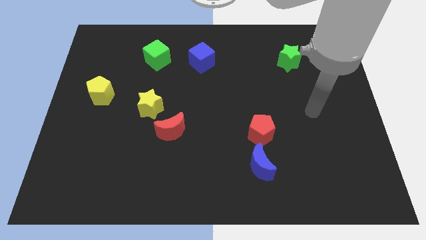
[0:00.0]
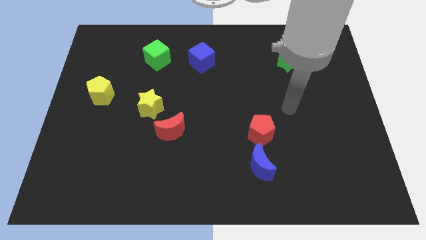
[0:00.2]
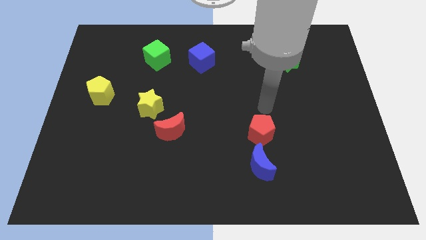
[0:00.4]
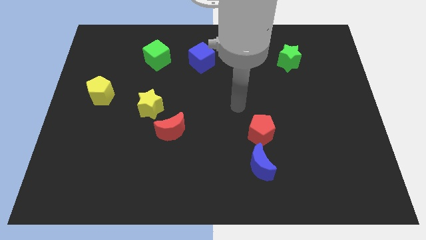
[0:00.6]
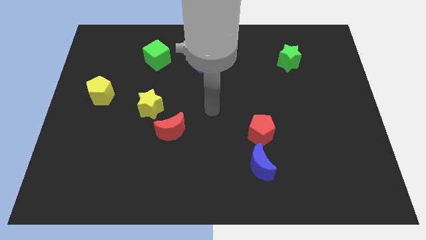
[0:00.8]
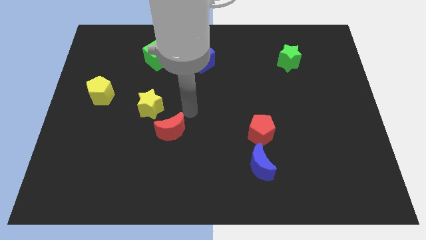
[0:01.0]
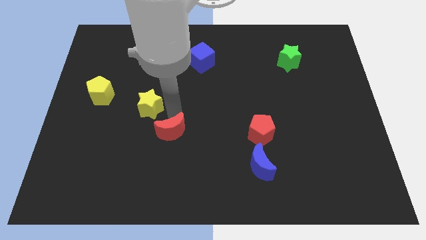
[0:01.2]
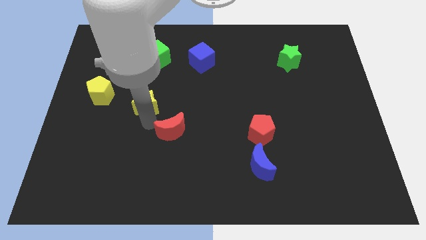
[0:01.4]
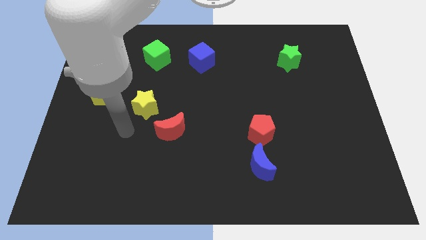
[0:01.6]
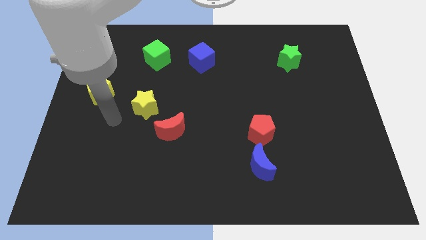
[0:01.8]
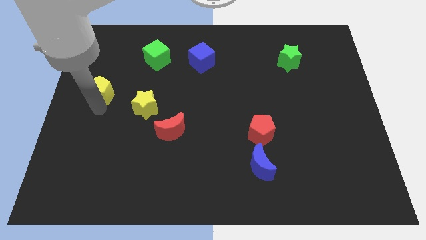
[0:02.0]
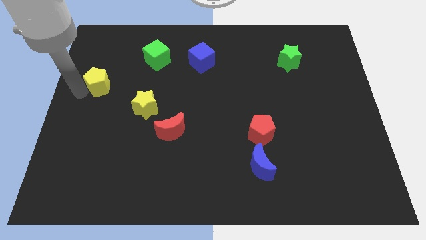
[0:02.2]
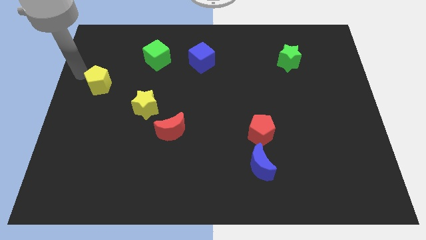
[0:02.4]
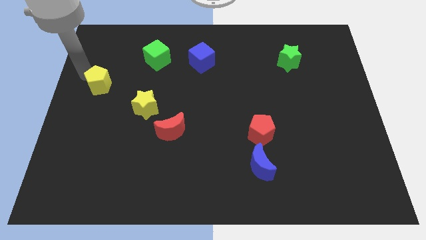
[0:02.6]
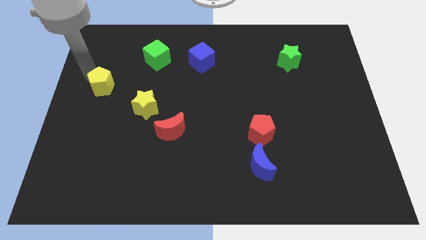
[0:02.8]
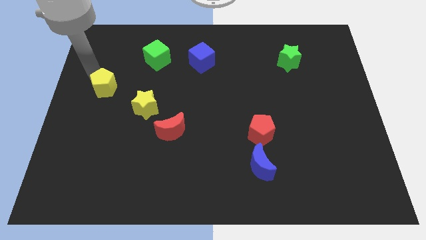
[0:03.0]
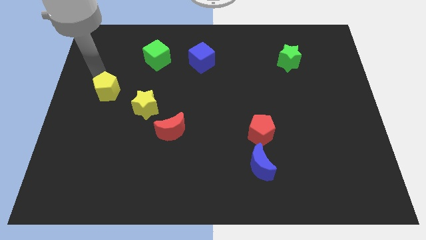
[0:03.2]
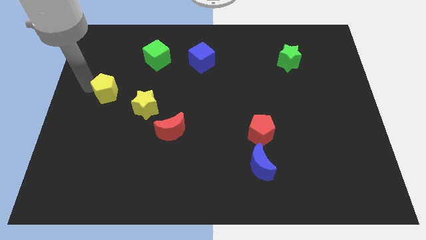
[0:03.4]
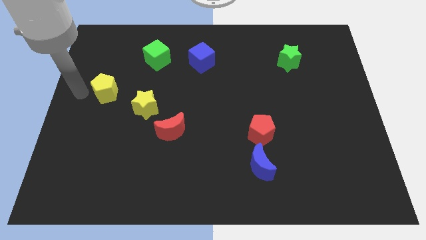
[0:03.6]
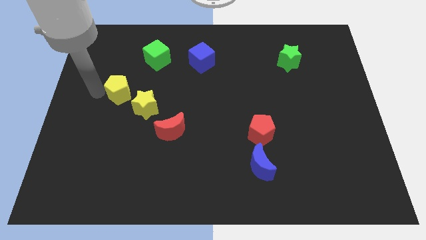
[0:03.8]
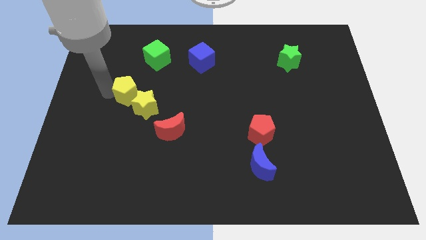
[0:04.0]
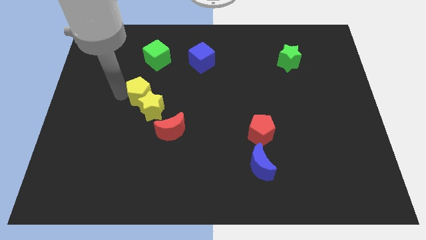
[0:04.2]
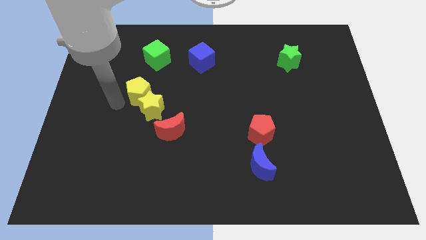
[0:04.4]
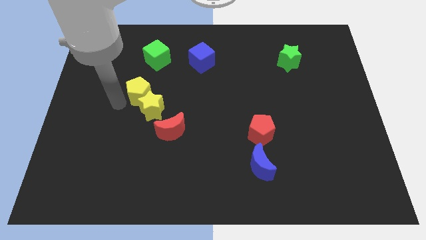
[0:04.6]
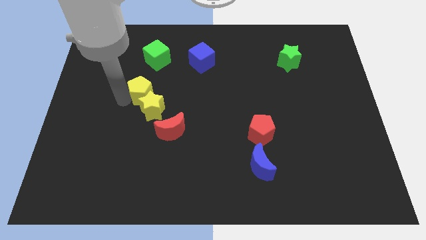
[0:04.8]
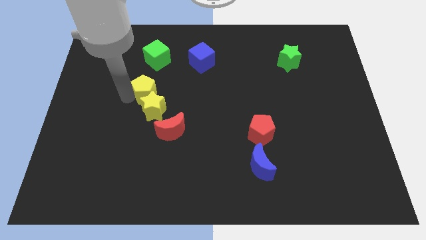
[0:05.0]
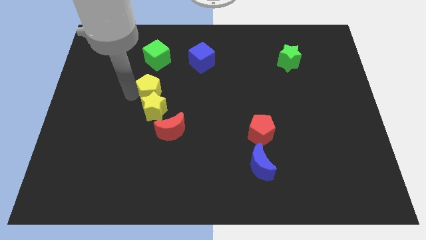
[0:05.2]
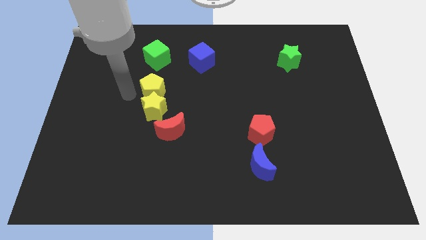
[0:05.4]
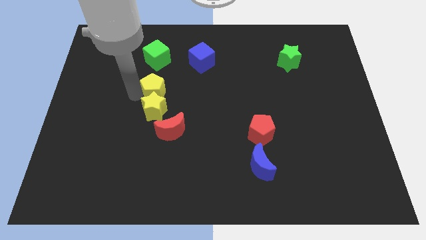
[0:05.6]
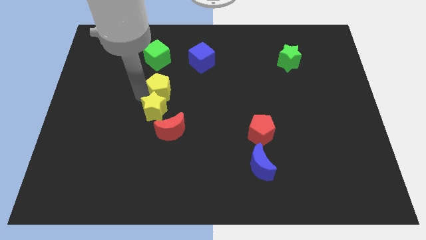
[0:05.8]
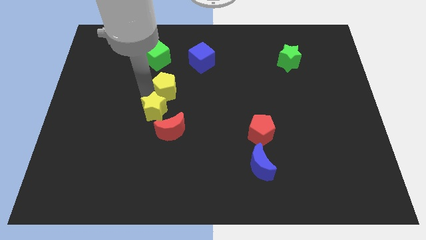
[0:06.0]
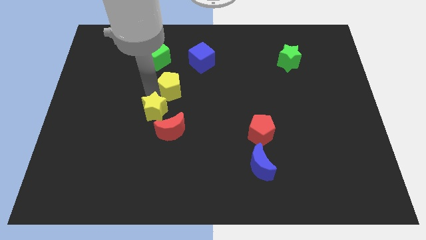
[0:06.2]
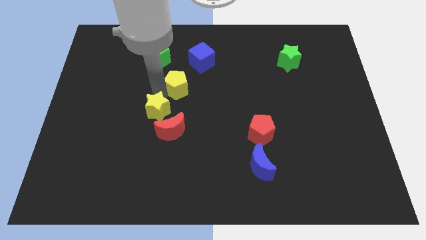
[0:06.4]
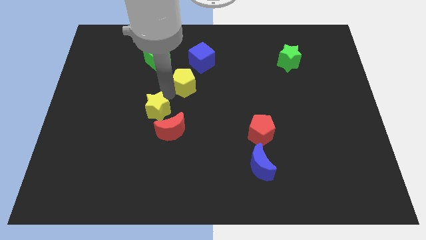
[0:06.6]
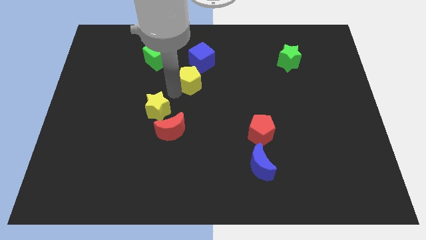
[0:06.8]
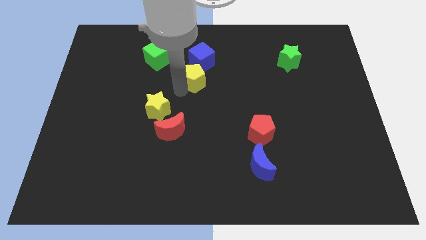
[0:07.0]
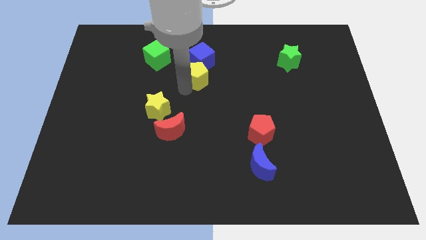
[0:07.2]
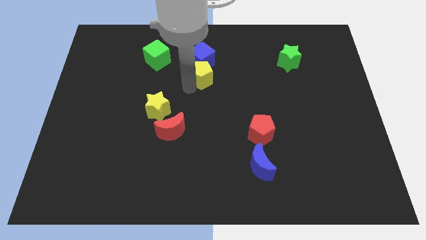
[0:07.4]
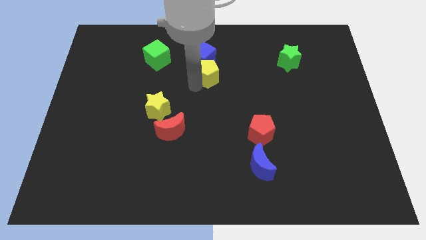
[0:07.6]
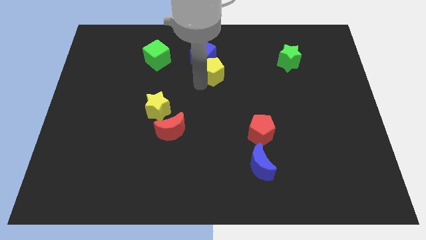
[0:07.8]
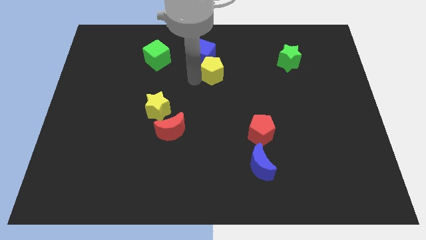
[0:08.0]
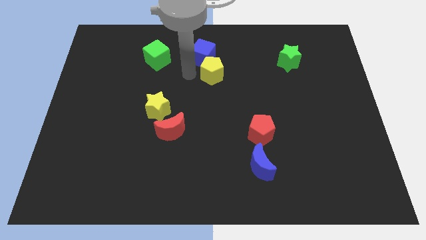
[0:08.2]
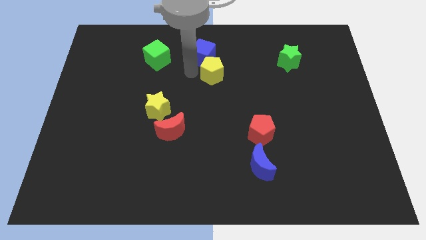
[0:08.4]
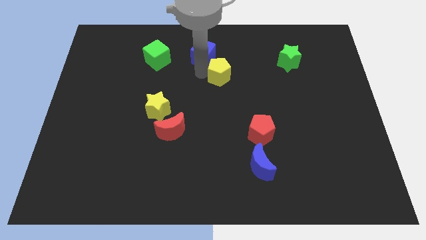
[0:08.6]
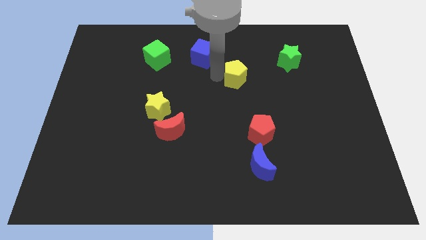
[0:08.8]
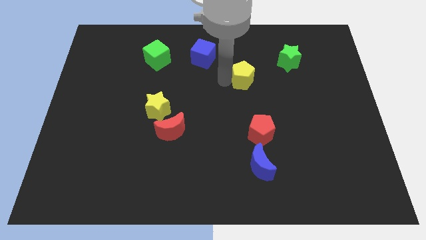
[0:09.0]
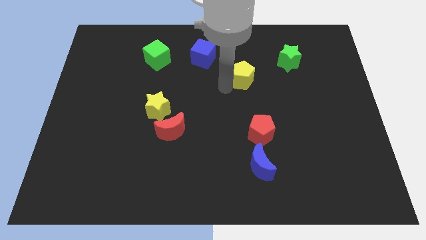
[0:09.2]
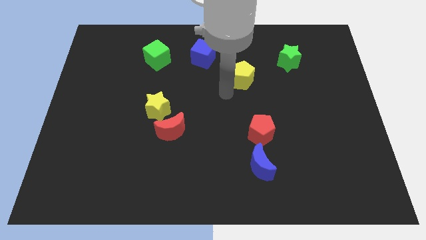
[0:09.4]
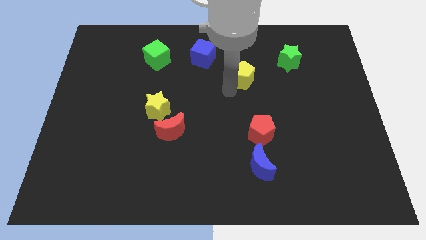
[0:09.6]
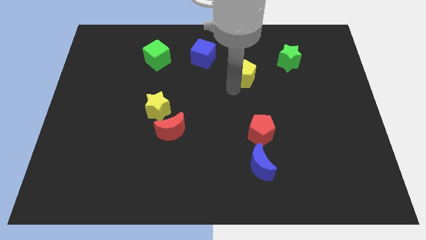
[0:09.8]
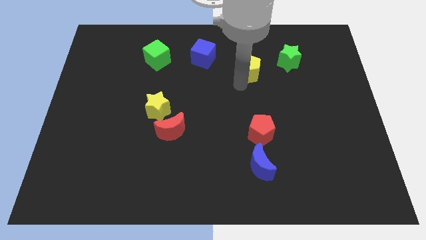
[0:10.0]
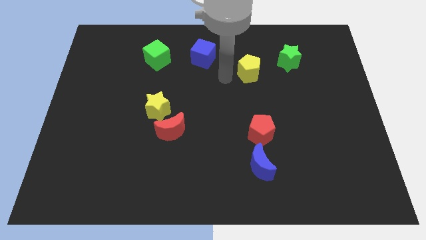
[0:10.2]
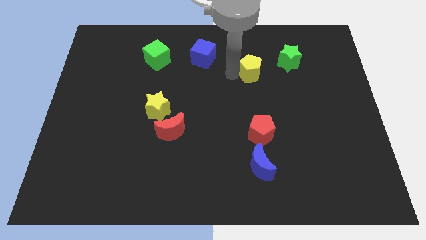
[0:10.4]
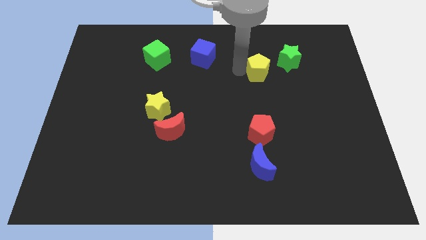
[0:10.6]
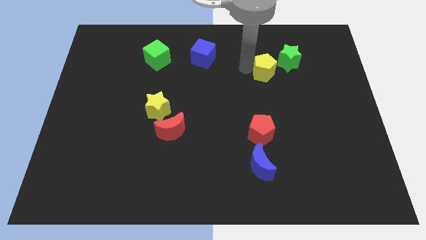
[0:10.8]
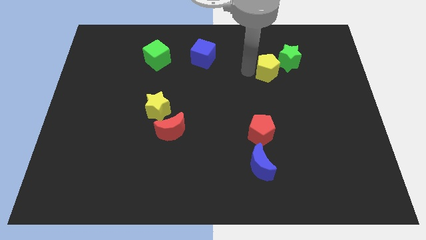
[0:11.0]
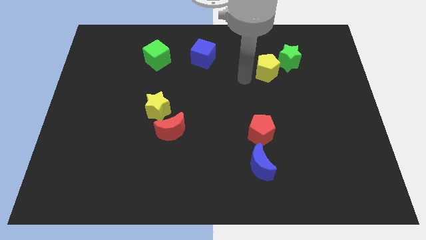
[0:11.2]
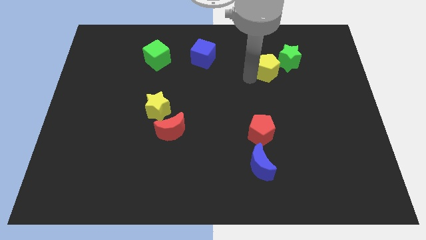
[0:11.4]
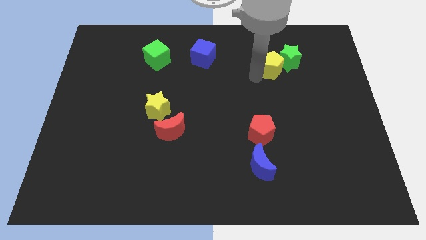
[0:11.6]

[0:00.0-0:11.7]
push the yellow pentagon towards the green star

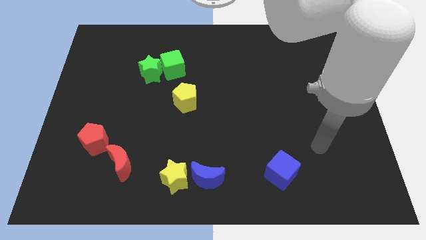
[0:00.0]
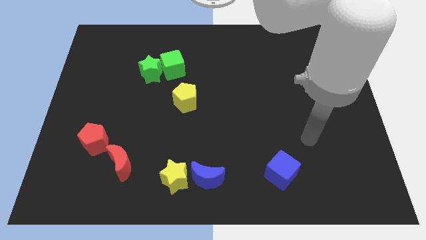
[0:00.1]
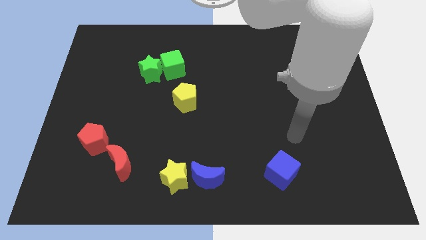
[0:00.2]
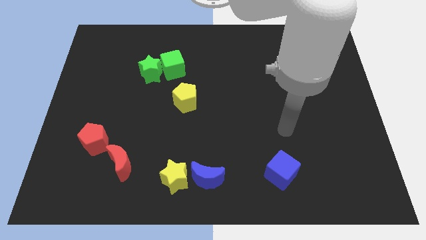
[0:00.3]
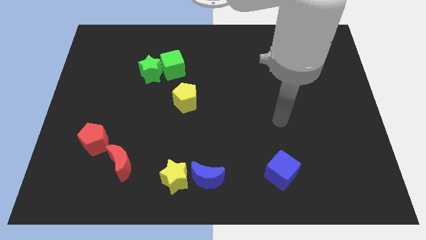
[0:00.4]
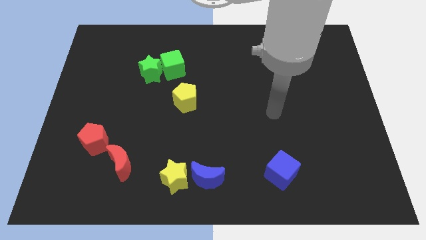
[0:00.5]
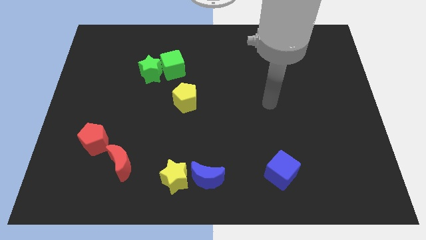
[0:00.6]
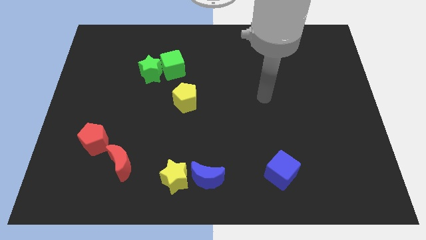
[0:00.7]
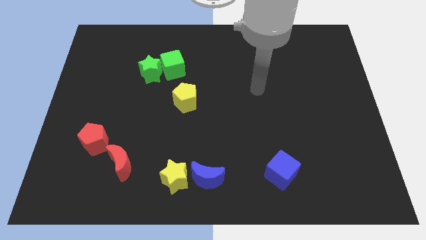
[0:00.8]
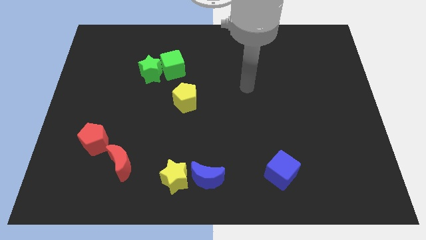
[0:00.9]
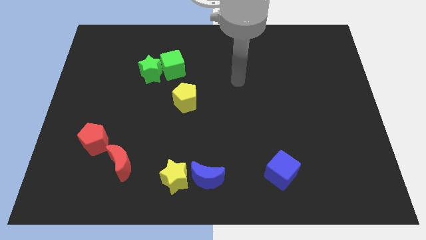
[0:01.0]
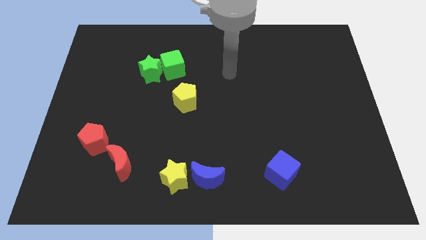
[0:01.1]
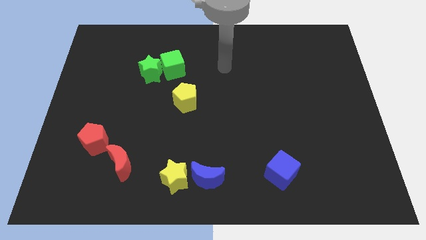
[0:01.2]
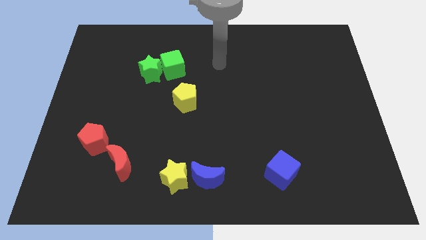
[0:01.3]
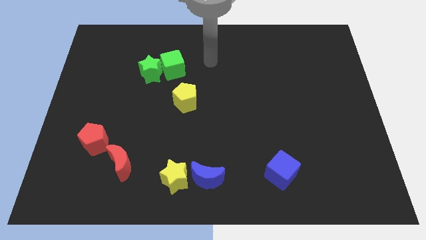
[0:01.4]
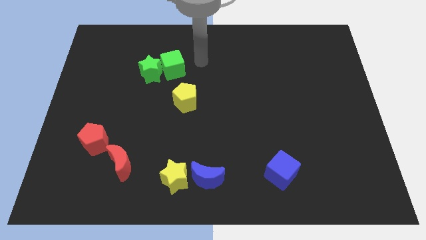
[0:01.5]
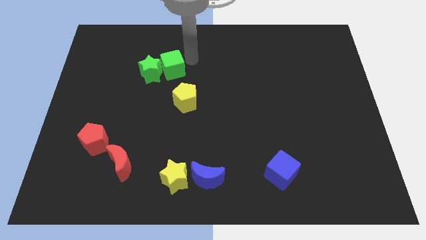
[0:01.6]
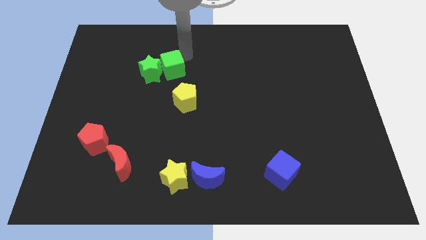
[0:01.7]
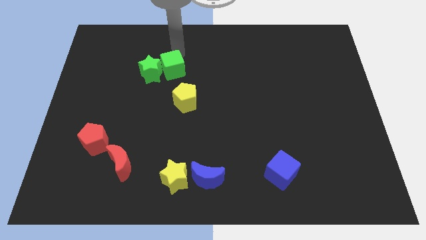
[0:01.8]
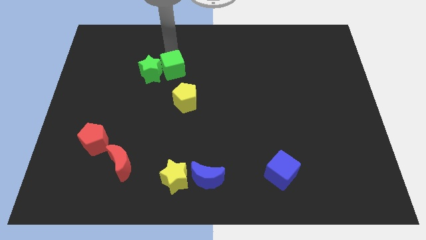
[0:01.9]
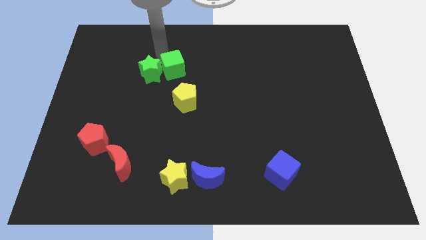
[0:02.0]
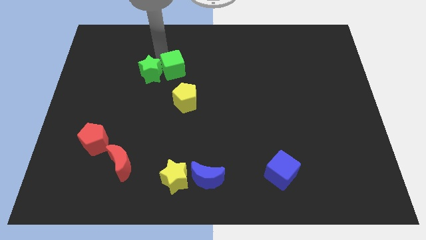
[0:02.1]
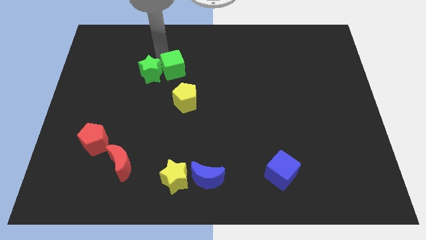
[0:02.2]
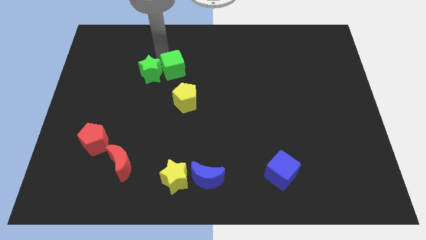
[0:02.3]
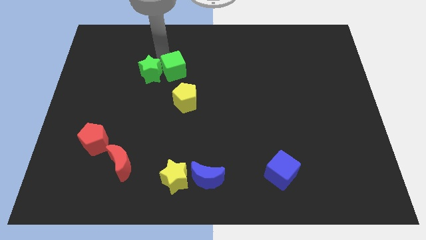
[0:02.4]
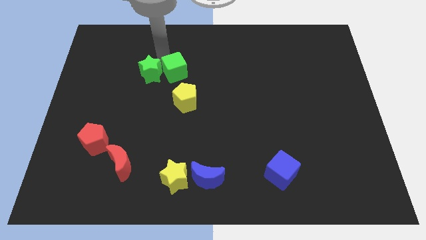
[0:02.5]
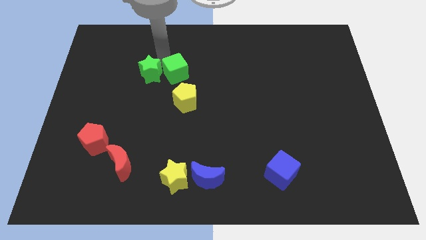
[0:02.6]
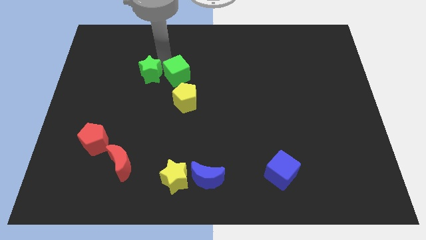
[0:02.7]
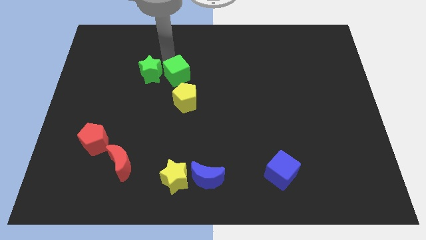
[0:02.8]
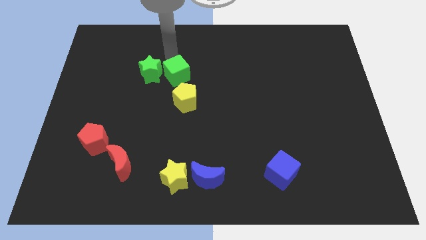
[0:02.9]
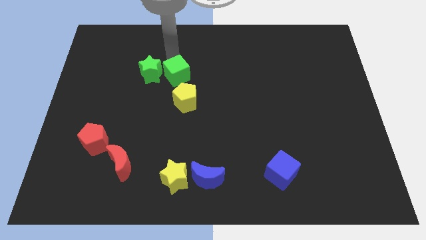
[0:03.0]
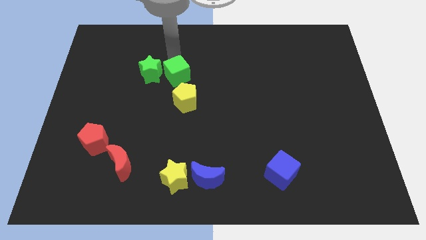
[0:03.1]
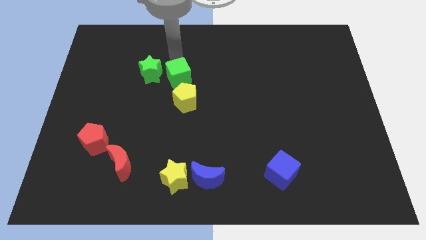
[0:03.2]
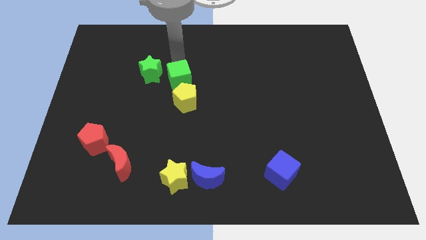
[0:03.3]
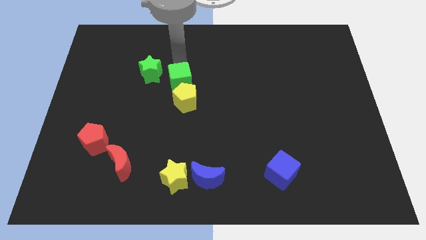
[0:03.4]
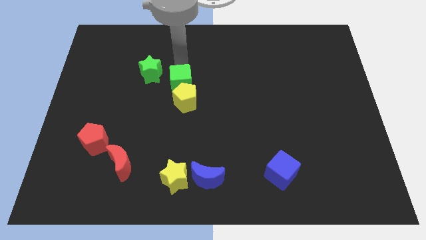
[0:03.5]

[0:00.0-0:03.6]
slide the green cube towards the yellow pentagon
